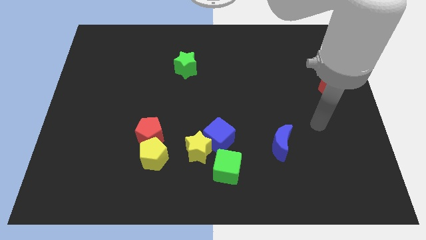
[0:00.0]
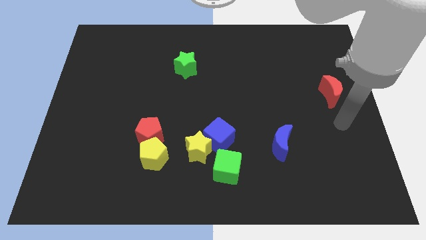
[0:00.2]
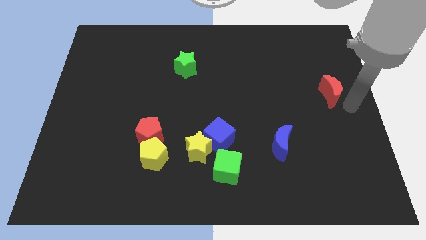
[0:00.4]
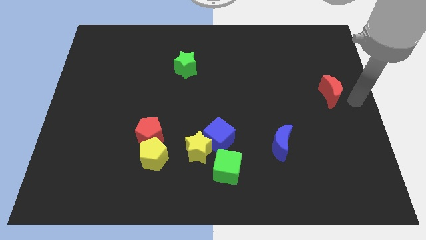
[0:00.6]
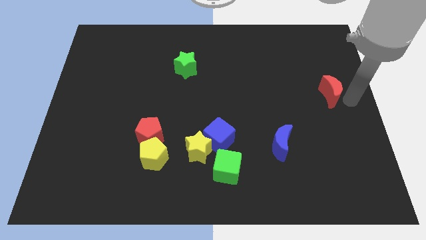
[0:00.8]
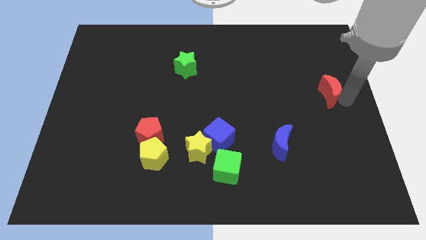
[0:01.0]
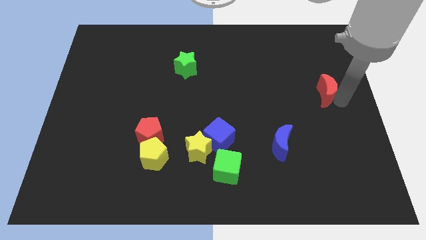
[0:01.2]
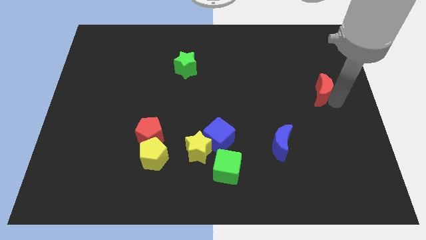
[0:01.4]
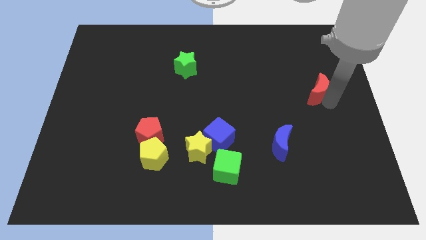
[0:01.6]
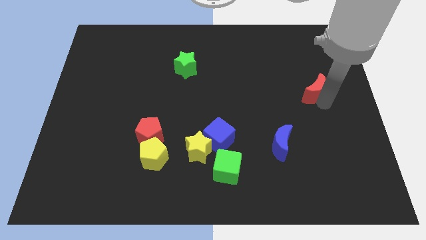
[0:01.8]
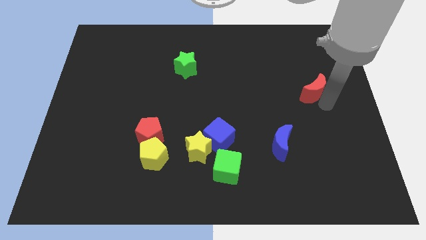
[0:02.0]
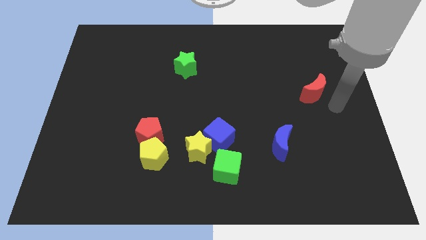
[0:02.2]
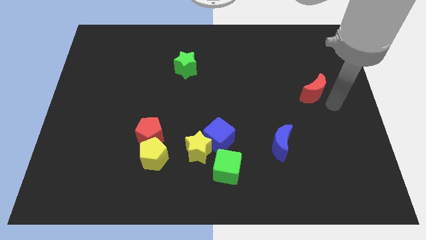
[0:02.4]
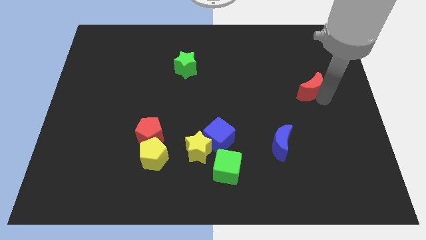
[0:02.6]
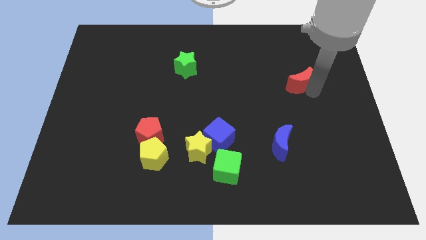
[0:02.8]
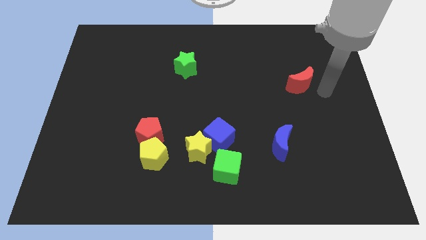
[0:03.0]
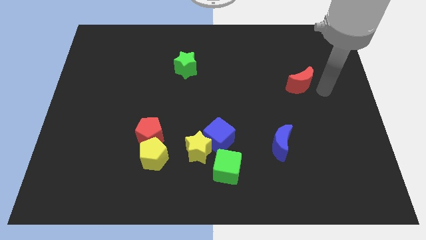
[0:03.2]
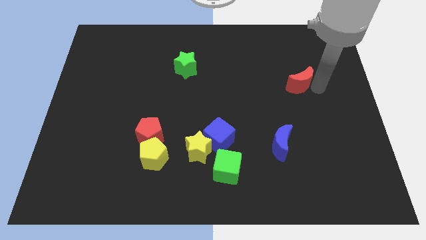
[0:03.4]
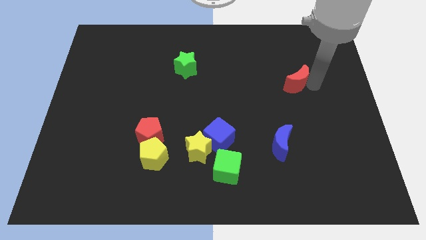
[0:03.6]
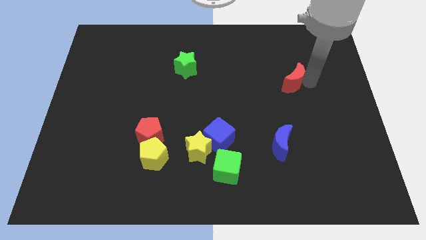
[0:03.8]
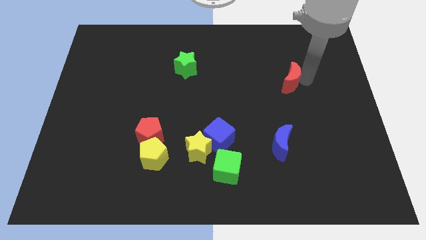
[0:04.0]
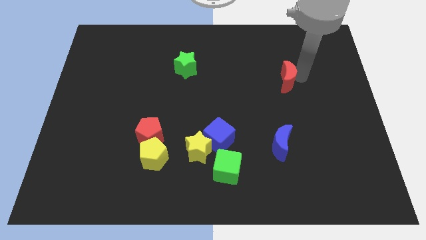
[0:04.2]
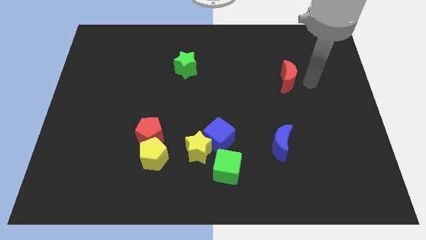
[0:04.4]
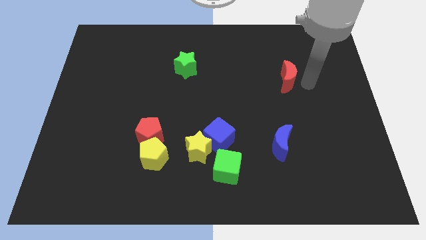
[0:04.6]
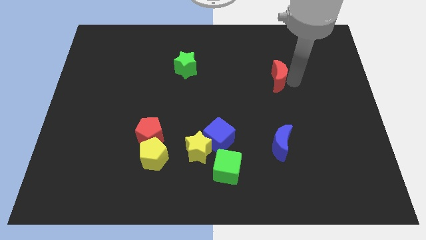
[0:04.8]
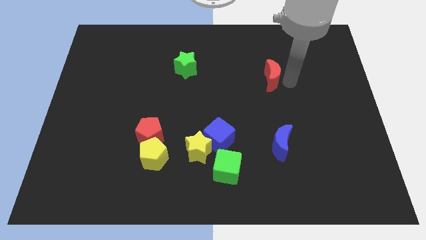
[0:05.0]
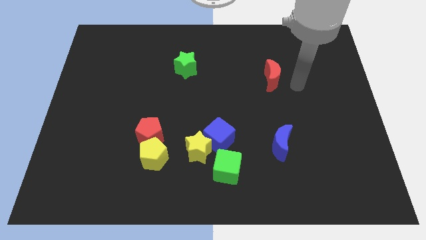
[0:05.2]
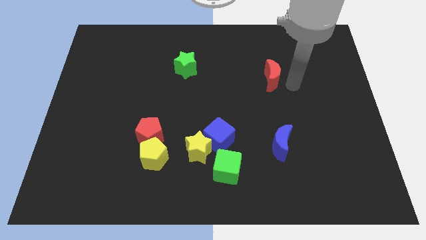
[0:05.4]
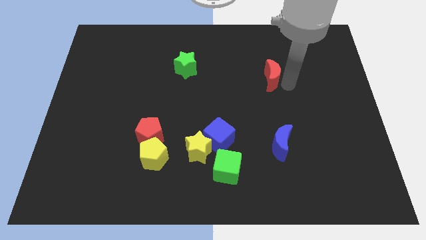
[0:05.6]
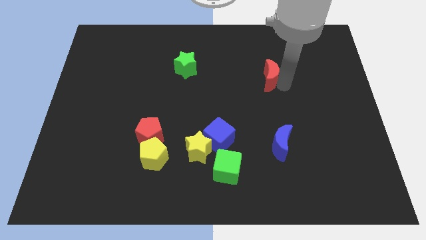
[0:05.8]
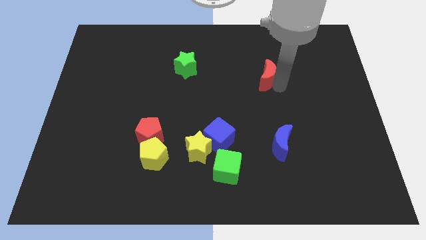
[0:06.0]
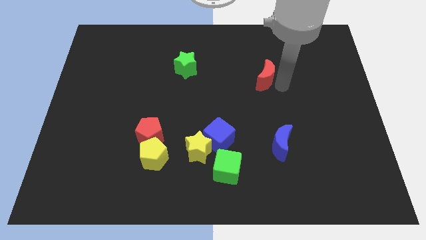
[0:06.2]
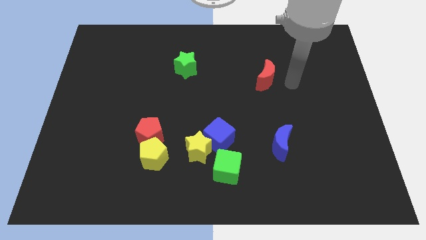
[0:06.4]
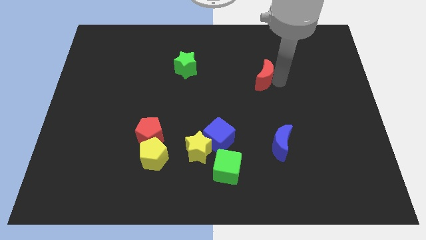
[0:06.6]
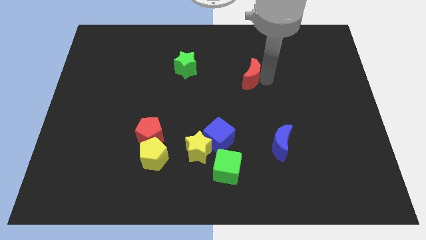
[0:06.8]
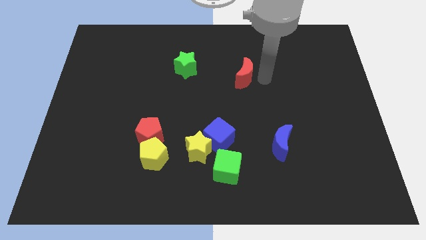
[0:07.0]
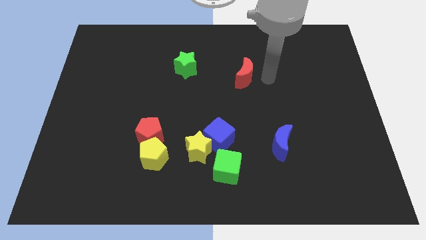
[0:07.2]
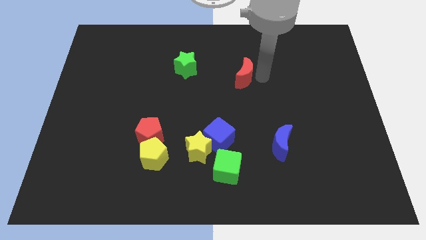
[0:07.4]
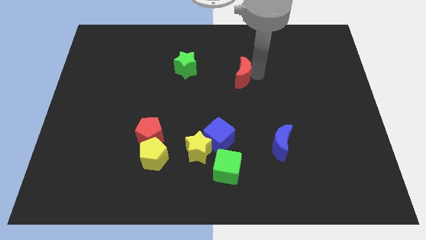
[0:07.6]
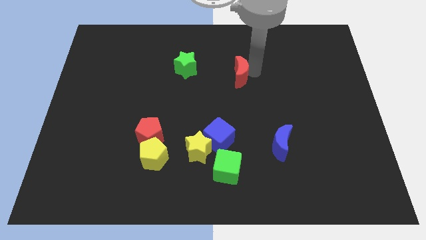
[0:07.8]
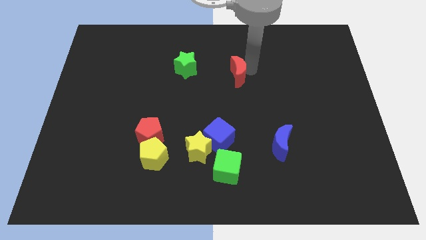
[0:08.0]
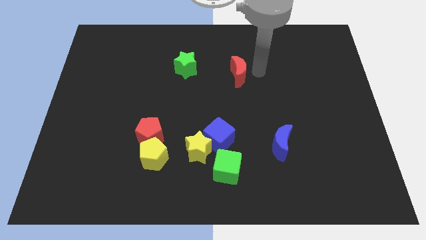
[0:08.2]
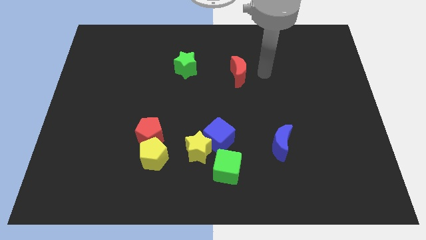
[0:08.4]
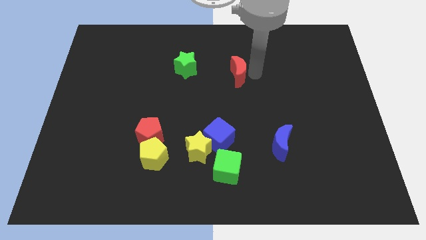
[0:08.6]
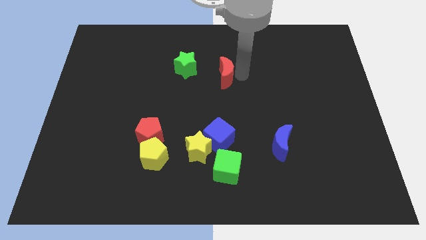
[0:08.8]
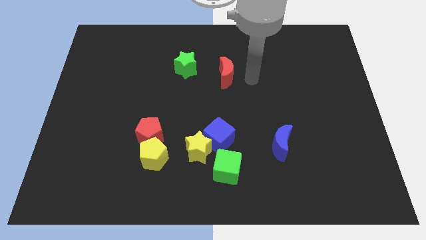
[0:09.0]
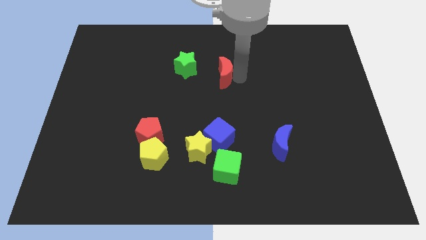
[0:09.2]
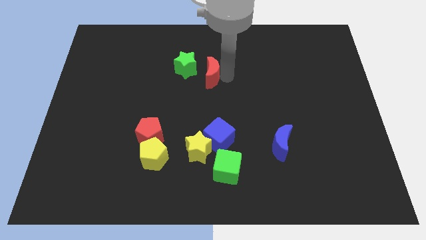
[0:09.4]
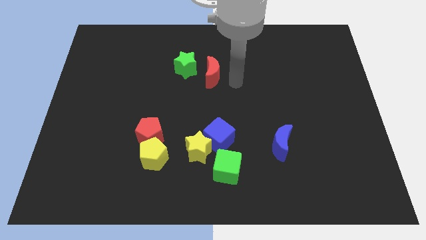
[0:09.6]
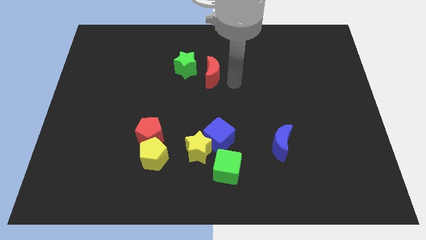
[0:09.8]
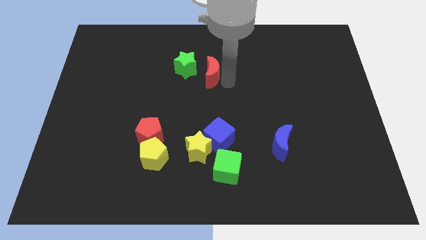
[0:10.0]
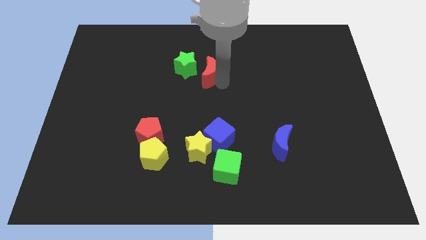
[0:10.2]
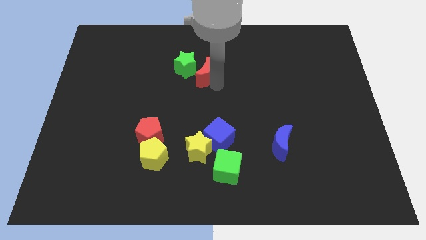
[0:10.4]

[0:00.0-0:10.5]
push the red moon next to the green star

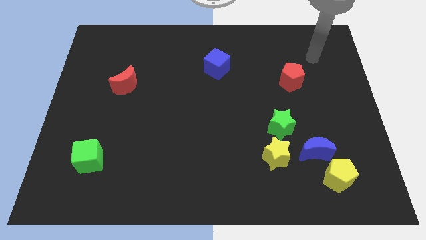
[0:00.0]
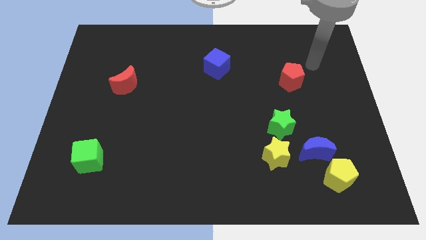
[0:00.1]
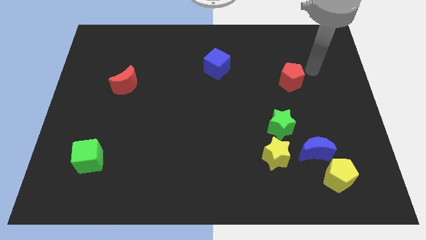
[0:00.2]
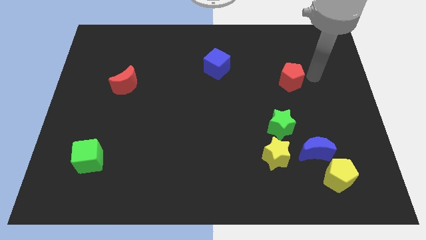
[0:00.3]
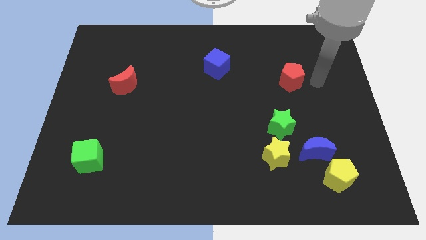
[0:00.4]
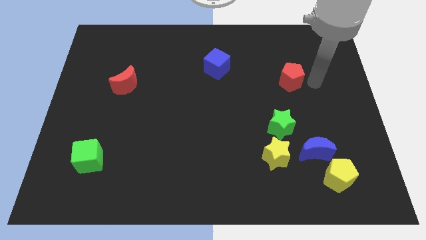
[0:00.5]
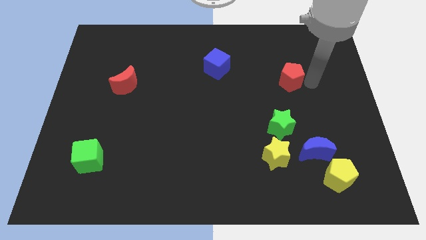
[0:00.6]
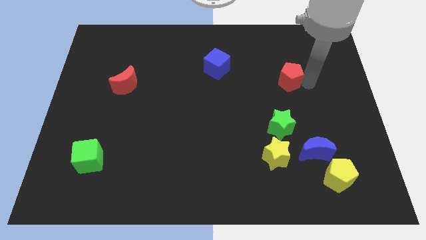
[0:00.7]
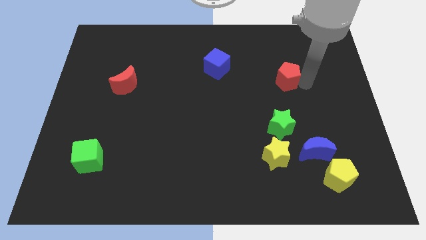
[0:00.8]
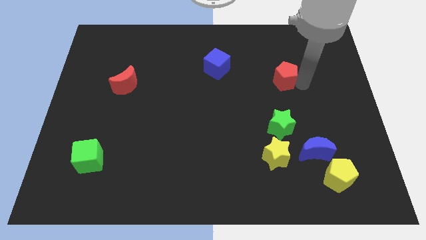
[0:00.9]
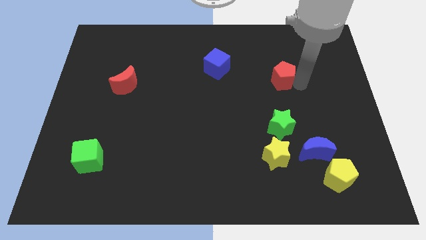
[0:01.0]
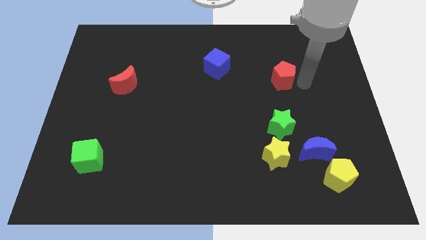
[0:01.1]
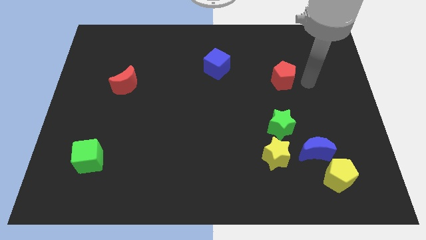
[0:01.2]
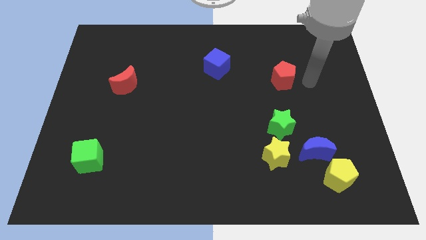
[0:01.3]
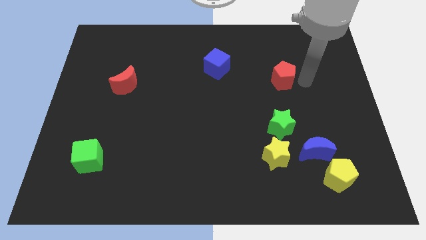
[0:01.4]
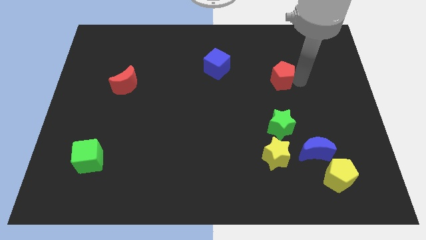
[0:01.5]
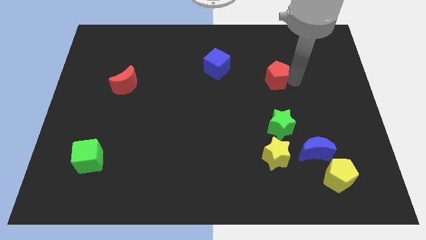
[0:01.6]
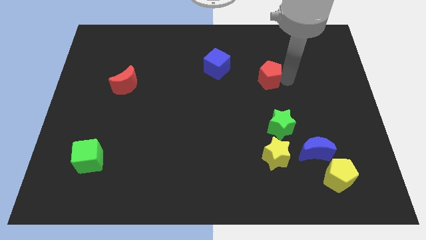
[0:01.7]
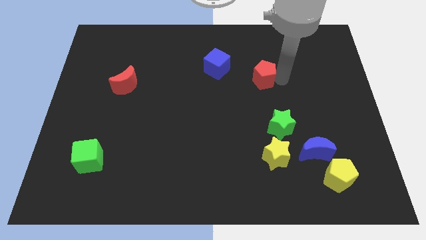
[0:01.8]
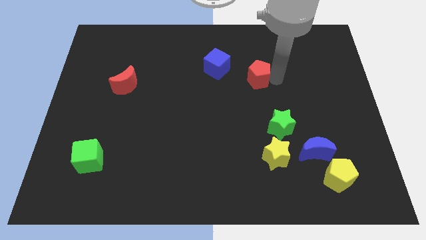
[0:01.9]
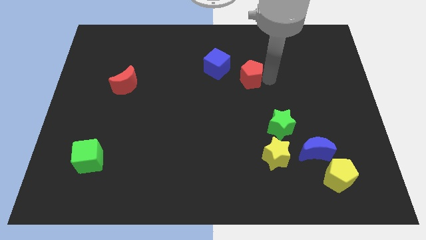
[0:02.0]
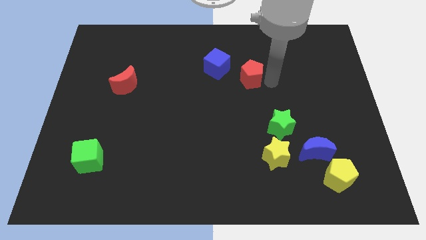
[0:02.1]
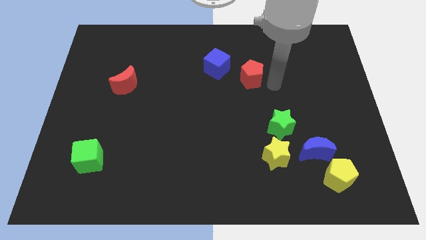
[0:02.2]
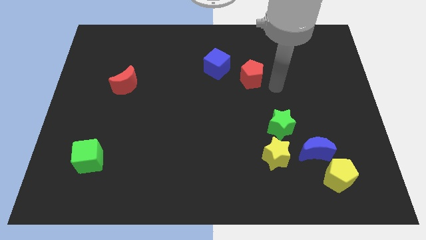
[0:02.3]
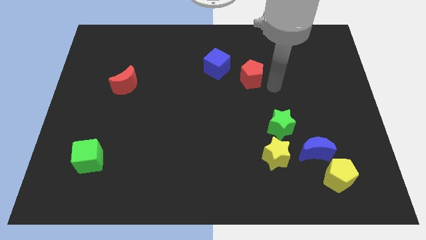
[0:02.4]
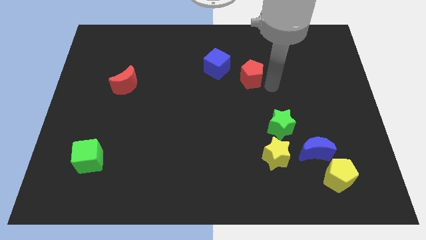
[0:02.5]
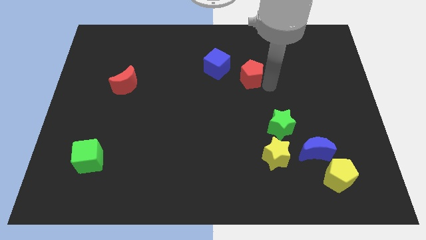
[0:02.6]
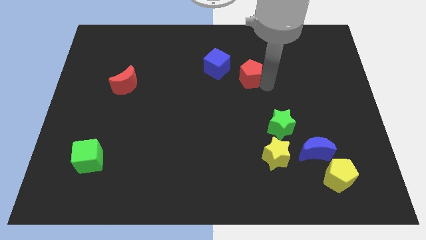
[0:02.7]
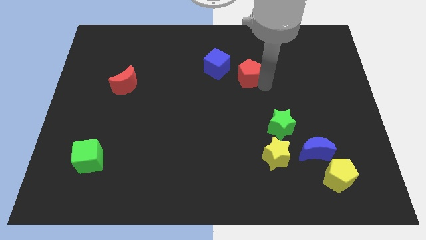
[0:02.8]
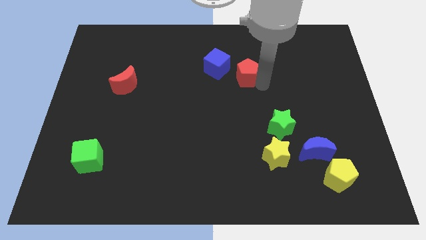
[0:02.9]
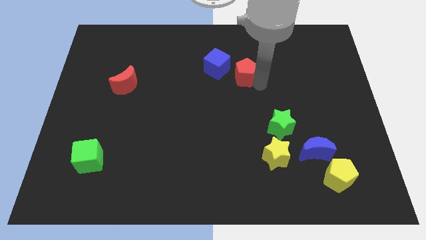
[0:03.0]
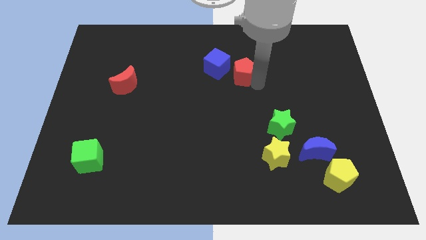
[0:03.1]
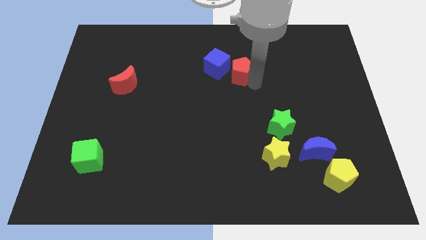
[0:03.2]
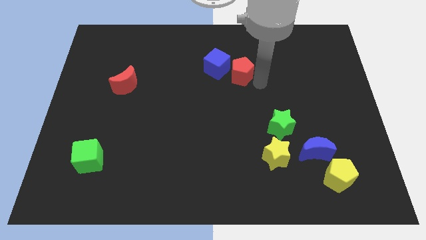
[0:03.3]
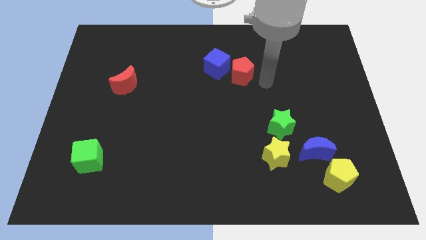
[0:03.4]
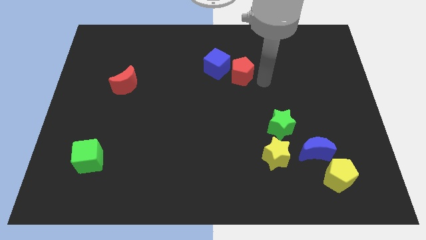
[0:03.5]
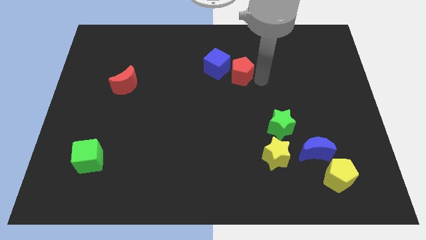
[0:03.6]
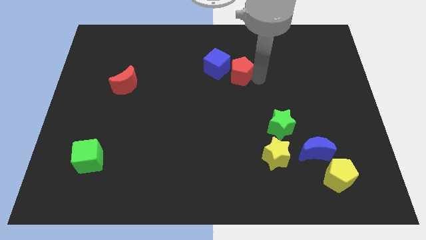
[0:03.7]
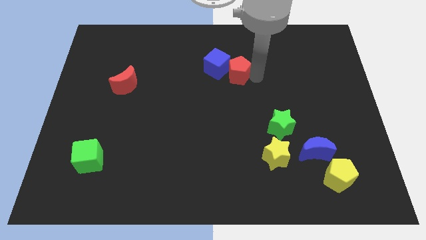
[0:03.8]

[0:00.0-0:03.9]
slide the red pentagon next to the blue cube
